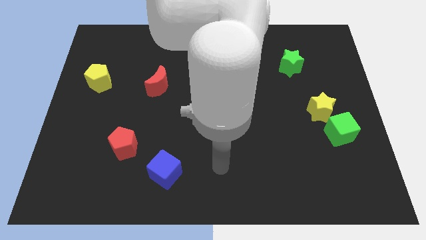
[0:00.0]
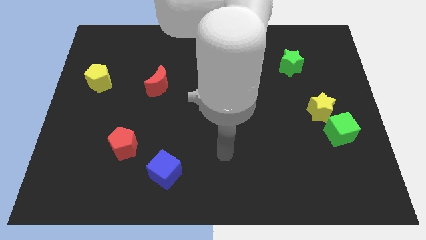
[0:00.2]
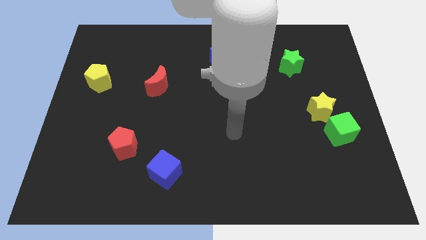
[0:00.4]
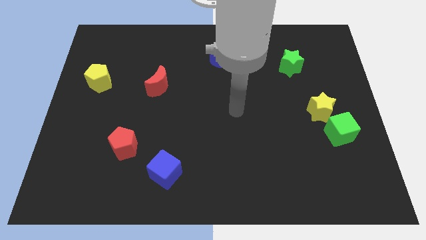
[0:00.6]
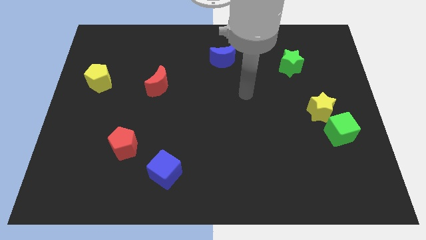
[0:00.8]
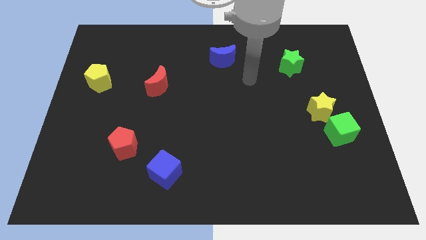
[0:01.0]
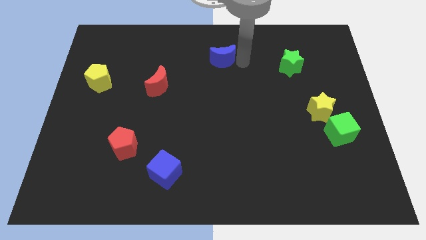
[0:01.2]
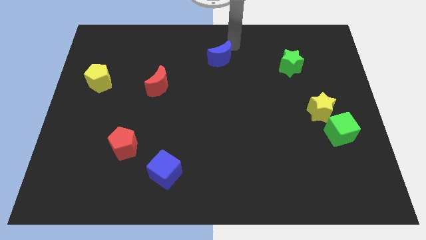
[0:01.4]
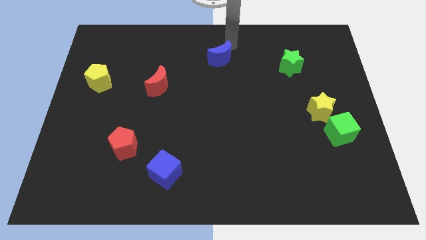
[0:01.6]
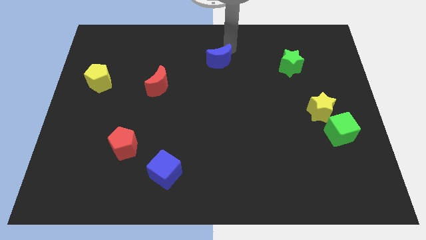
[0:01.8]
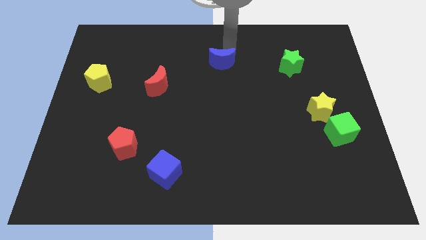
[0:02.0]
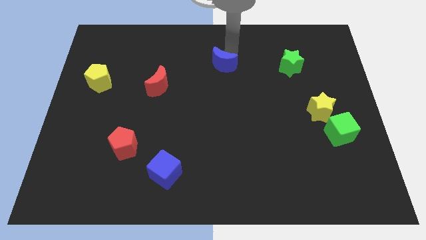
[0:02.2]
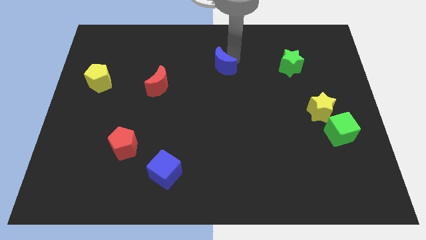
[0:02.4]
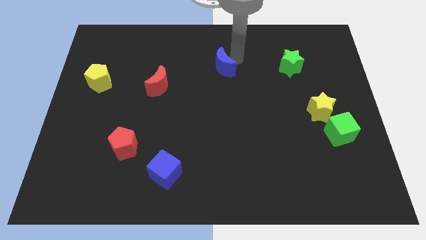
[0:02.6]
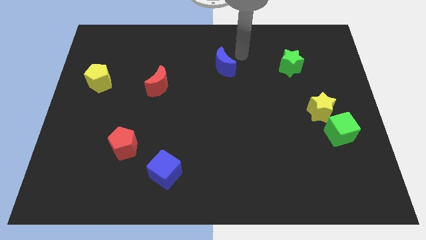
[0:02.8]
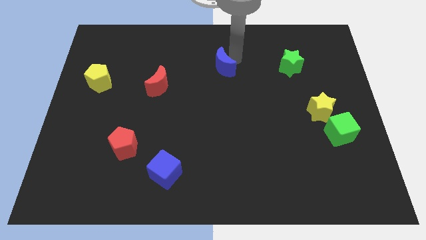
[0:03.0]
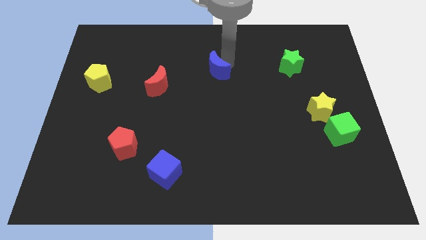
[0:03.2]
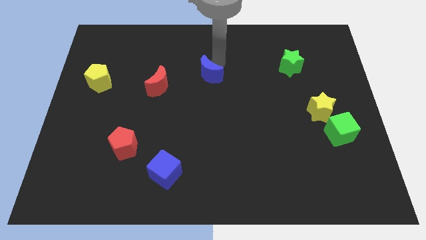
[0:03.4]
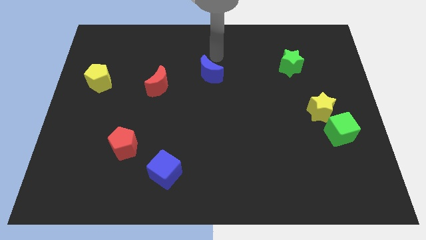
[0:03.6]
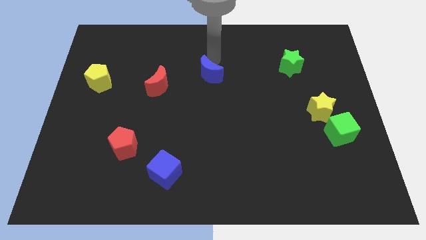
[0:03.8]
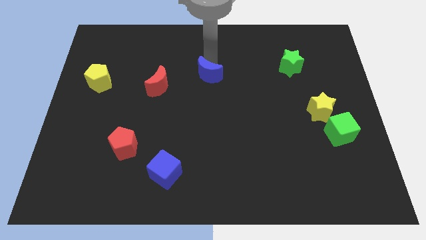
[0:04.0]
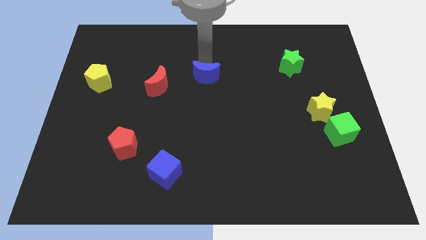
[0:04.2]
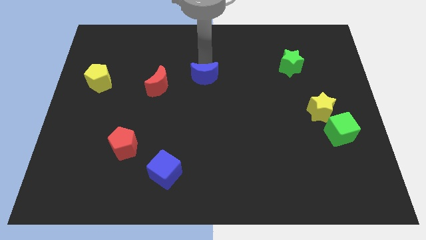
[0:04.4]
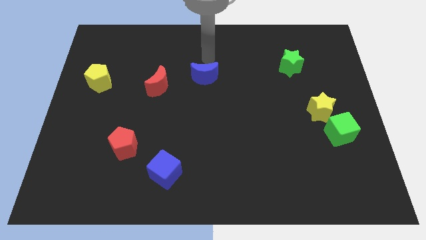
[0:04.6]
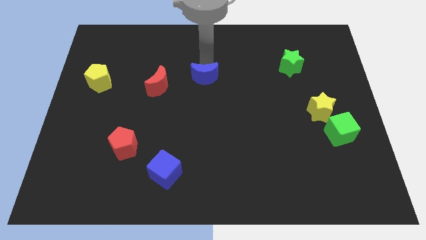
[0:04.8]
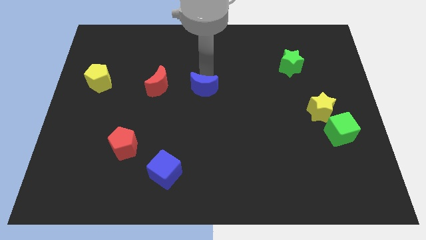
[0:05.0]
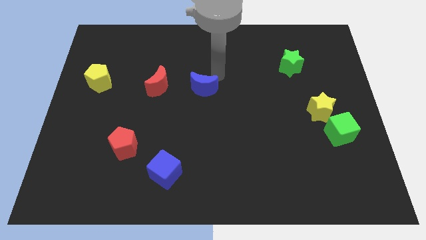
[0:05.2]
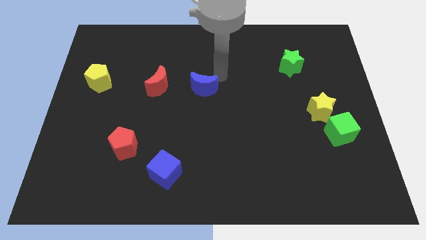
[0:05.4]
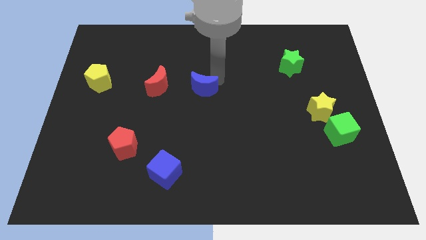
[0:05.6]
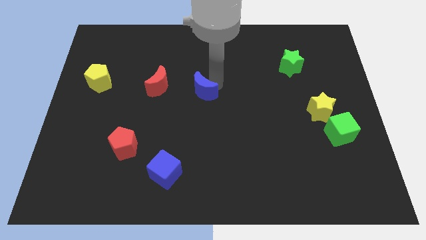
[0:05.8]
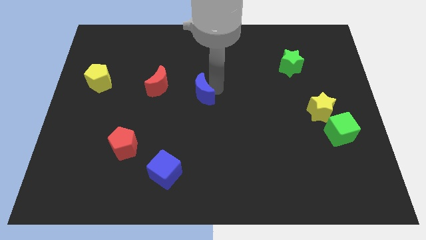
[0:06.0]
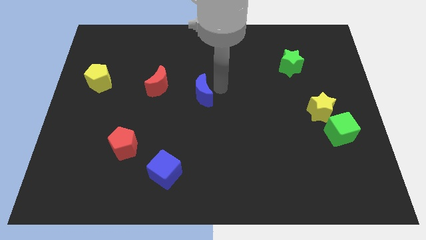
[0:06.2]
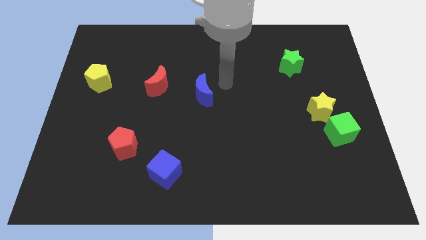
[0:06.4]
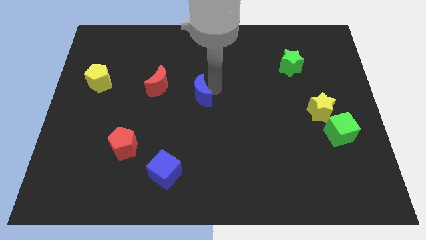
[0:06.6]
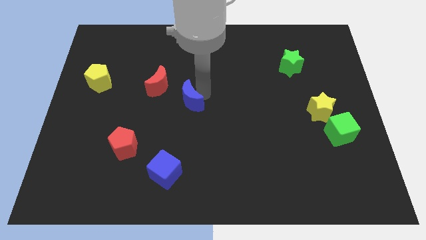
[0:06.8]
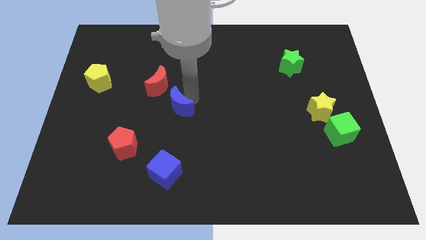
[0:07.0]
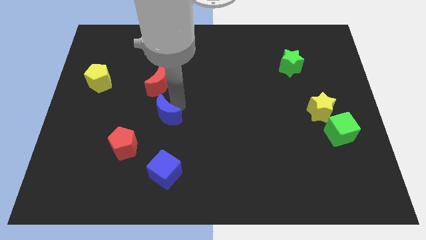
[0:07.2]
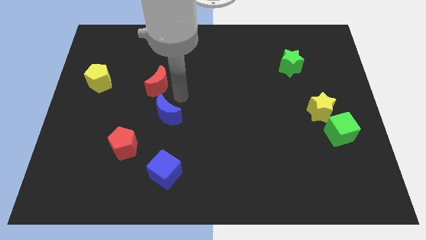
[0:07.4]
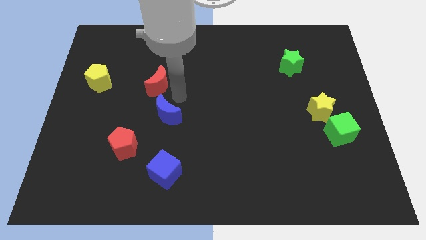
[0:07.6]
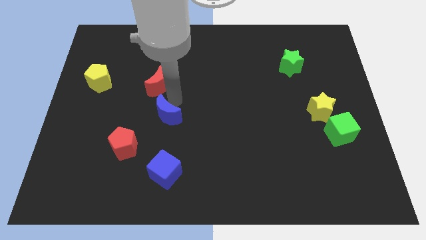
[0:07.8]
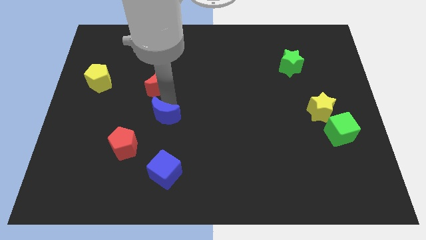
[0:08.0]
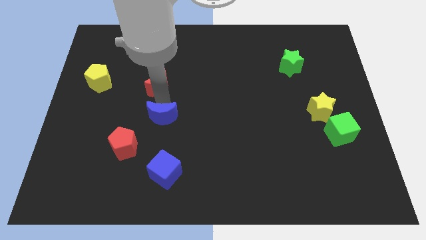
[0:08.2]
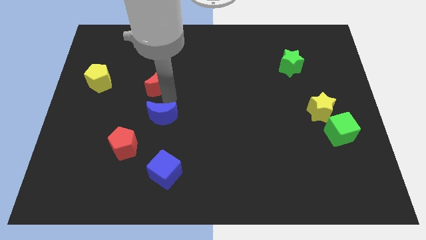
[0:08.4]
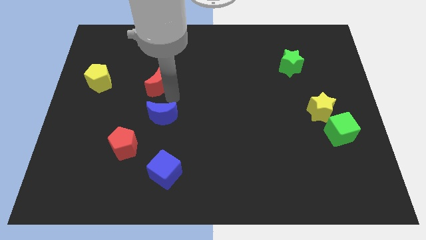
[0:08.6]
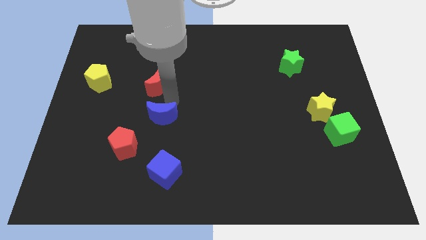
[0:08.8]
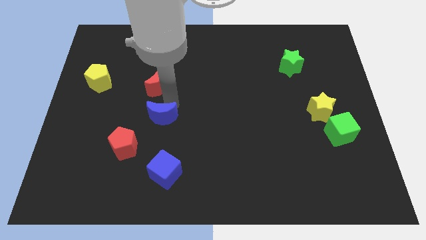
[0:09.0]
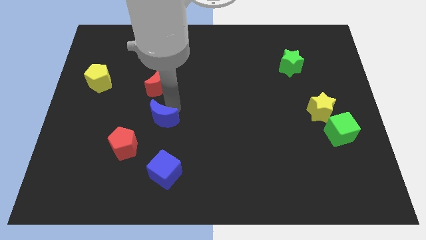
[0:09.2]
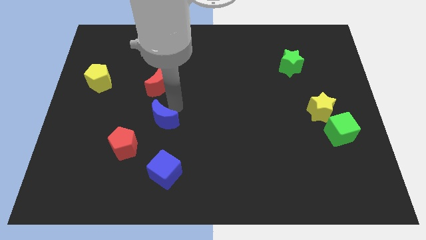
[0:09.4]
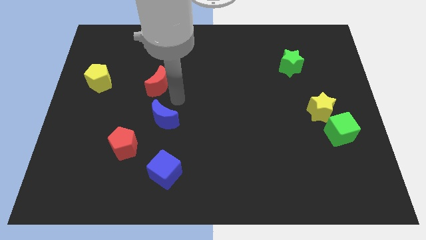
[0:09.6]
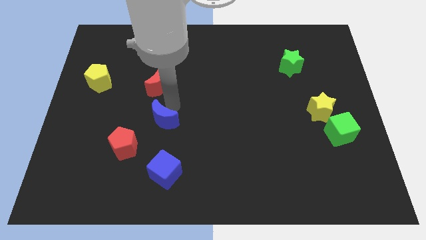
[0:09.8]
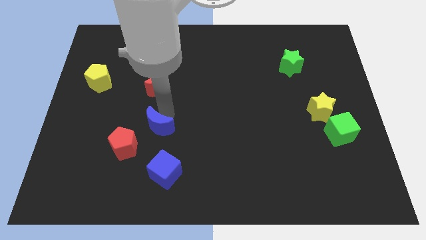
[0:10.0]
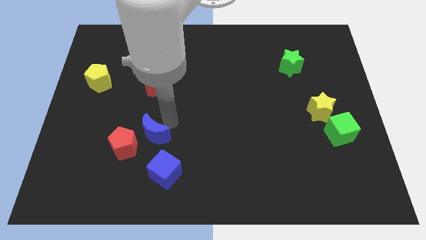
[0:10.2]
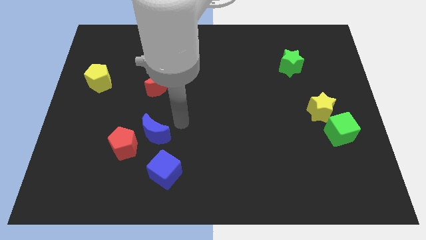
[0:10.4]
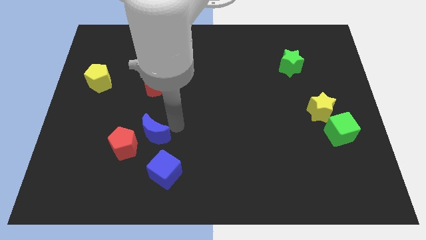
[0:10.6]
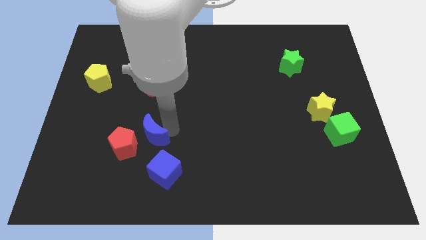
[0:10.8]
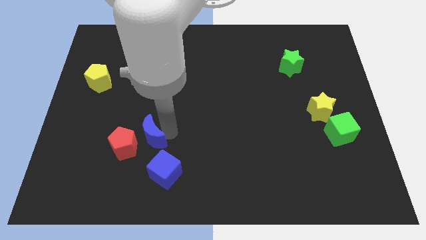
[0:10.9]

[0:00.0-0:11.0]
push the blue moon towards the red pentagon

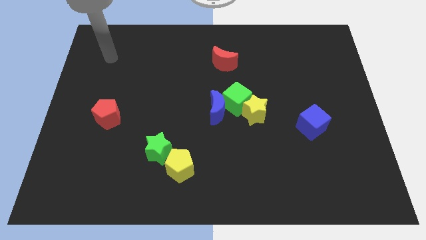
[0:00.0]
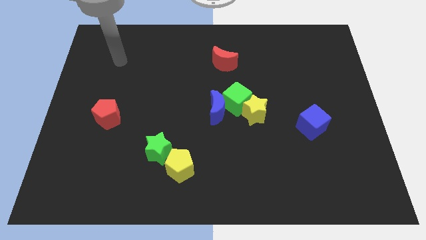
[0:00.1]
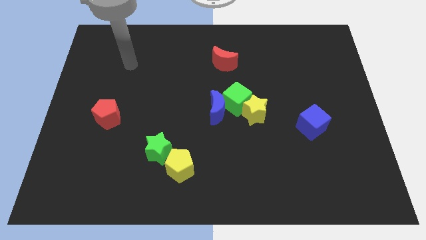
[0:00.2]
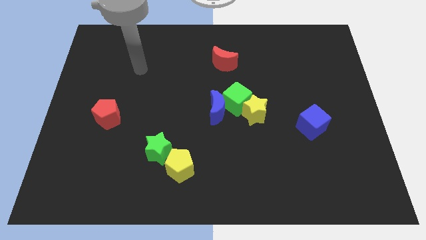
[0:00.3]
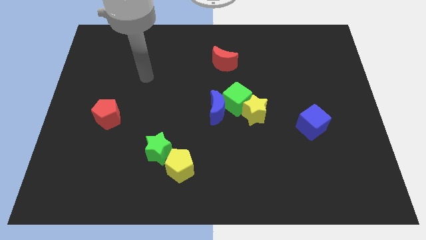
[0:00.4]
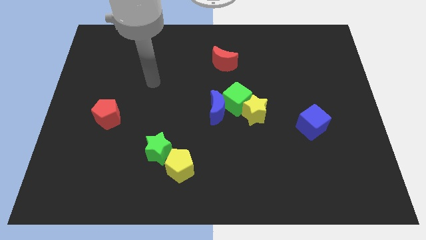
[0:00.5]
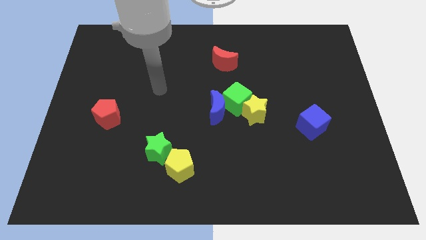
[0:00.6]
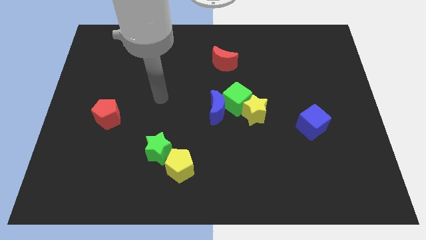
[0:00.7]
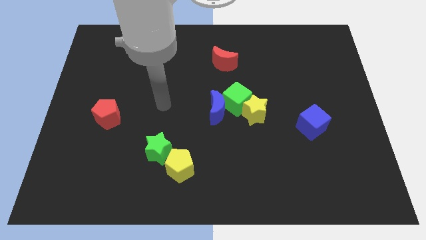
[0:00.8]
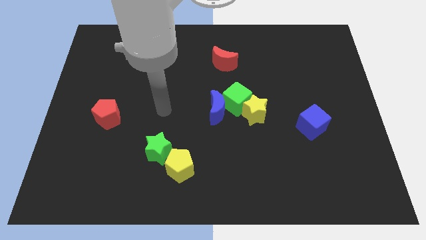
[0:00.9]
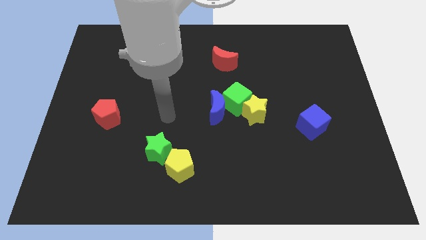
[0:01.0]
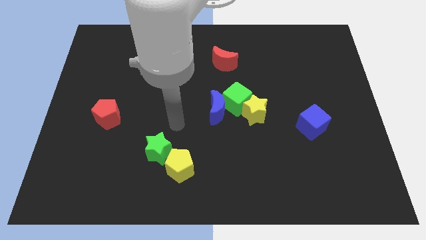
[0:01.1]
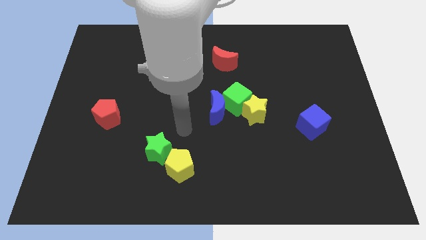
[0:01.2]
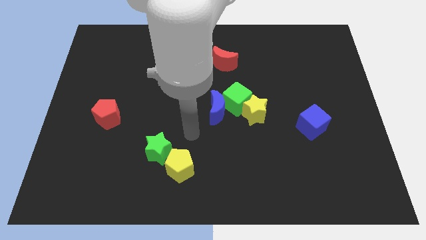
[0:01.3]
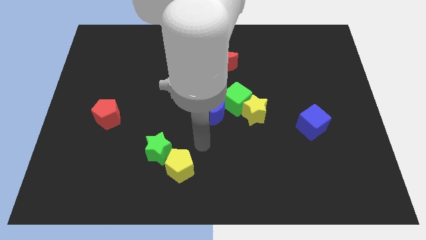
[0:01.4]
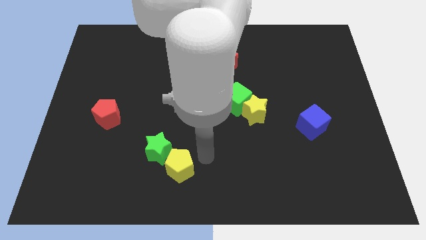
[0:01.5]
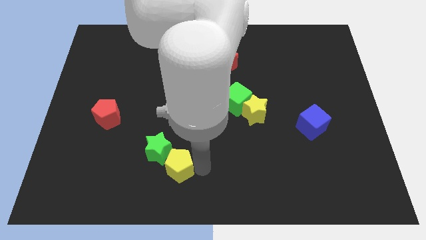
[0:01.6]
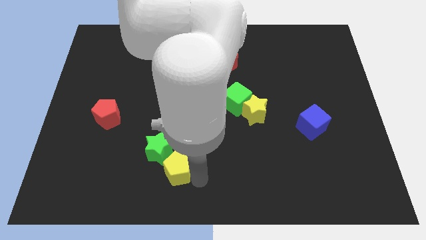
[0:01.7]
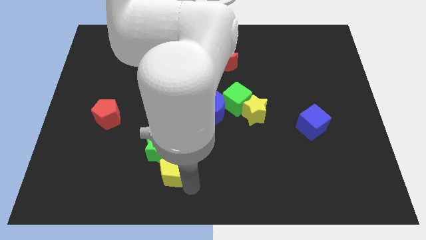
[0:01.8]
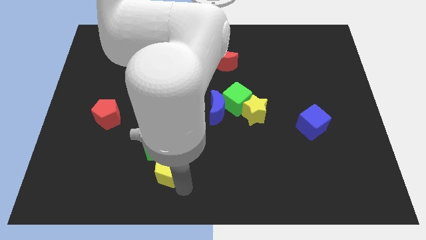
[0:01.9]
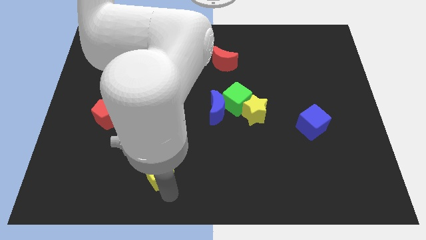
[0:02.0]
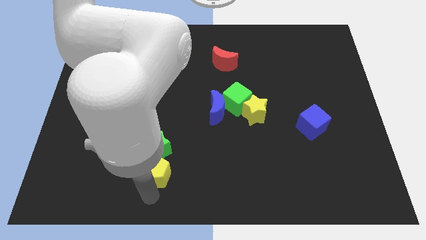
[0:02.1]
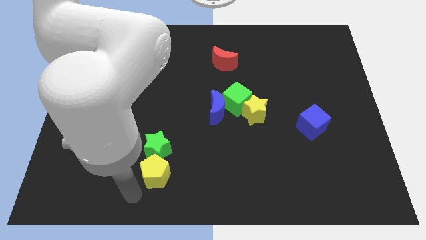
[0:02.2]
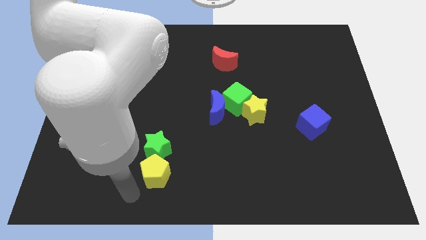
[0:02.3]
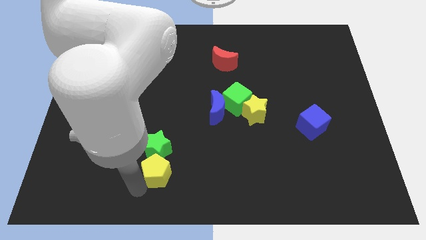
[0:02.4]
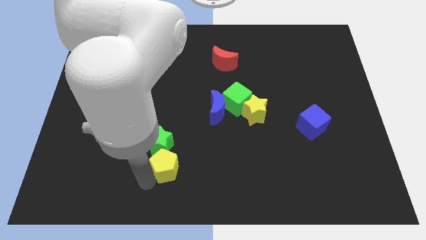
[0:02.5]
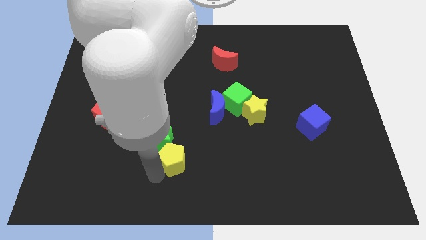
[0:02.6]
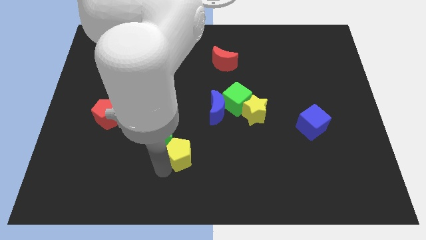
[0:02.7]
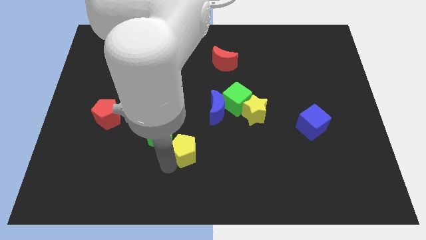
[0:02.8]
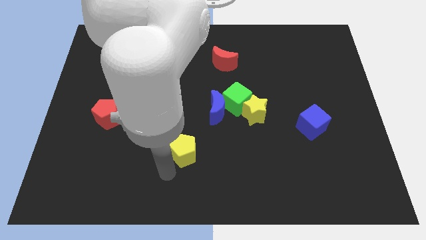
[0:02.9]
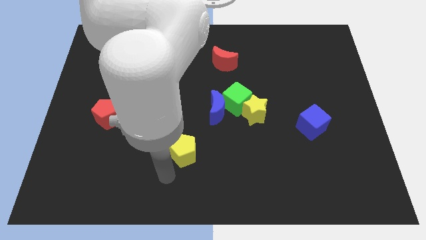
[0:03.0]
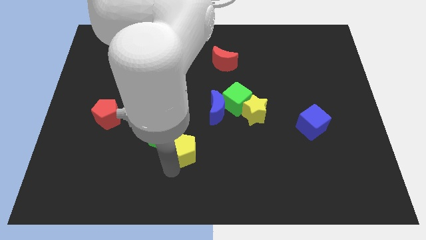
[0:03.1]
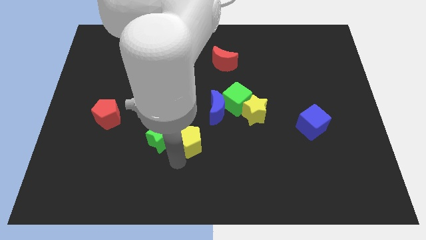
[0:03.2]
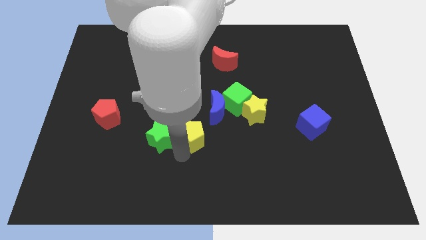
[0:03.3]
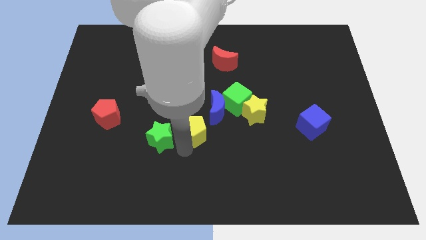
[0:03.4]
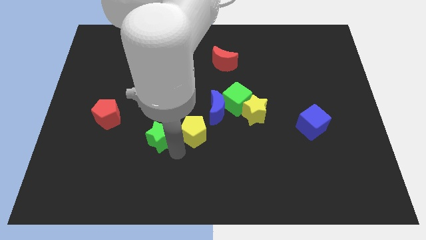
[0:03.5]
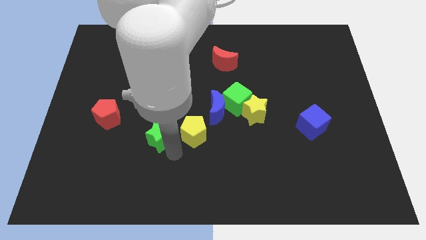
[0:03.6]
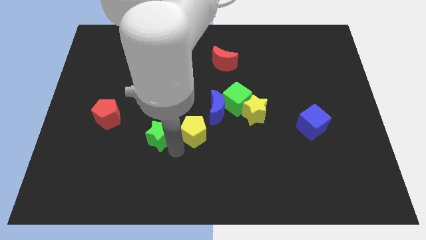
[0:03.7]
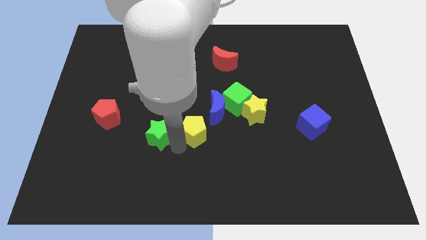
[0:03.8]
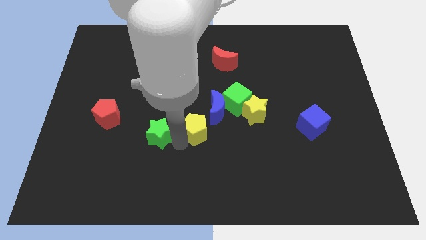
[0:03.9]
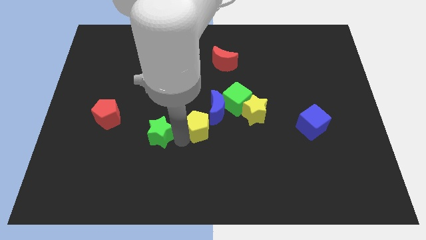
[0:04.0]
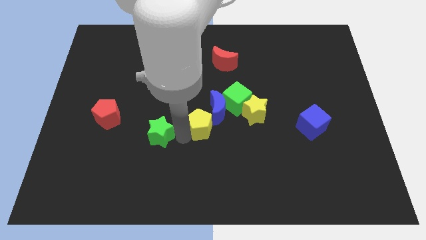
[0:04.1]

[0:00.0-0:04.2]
move the yellow pentagon to the blue moon
